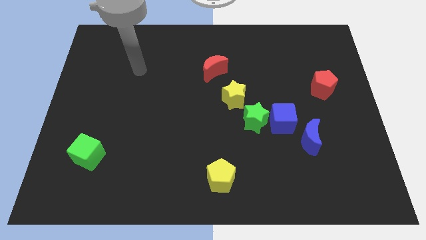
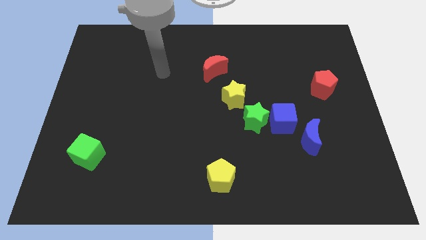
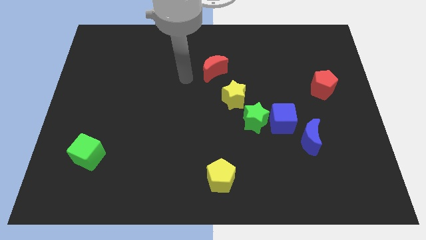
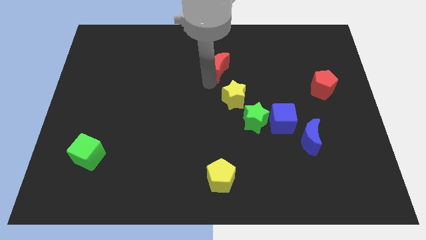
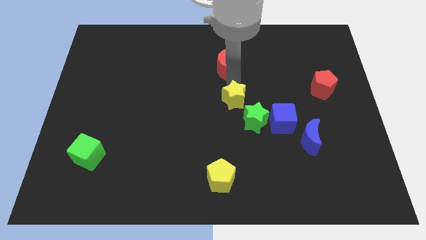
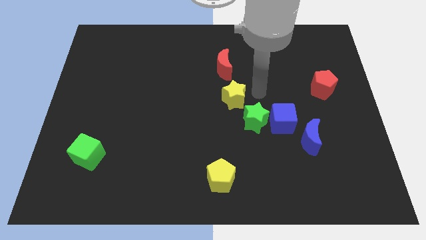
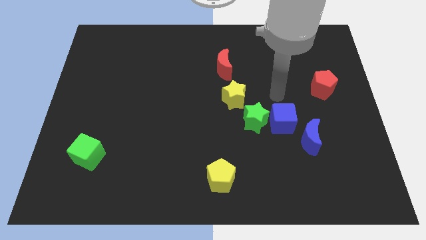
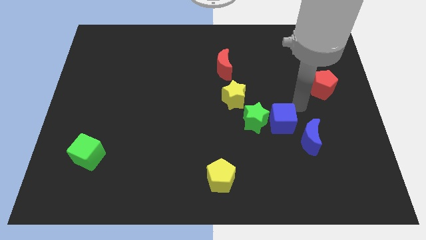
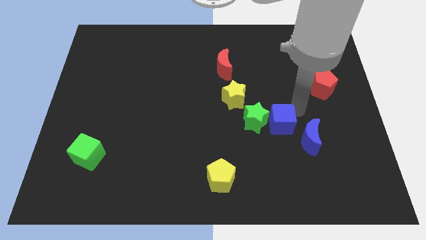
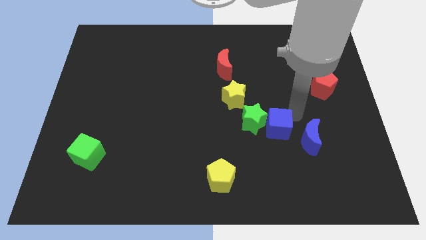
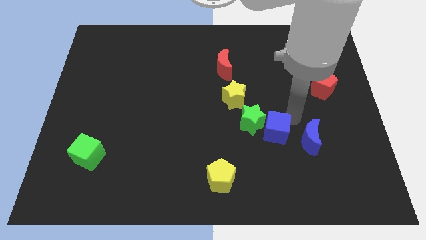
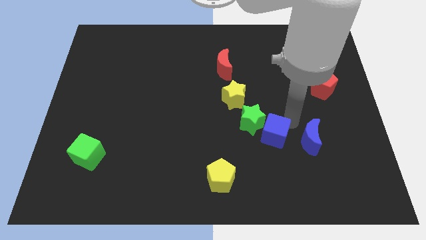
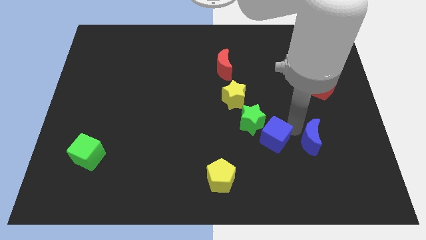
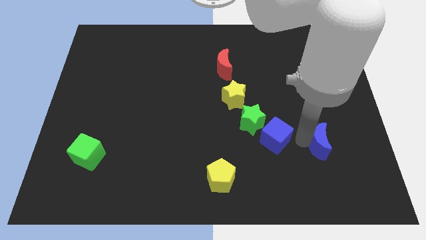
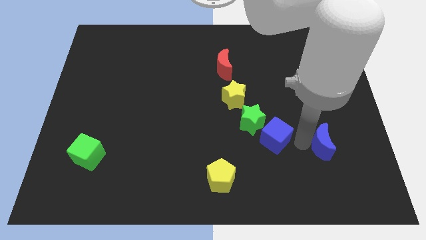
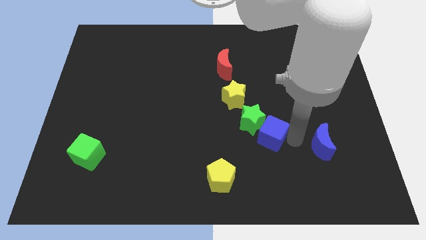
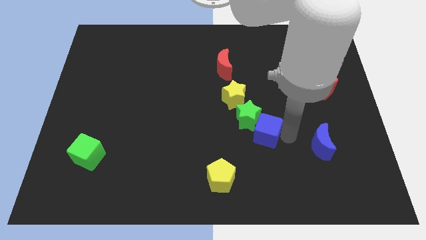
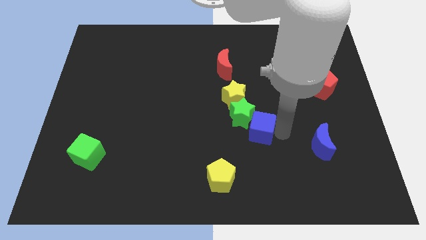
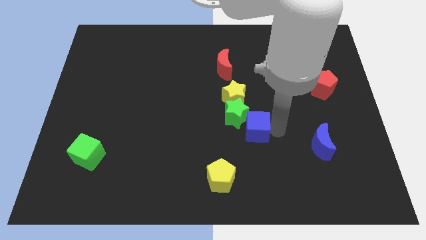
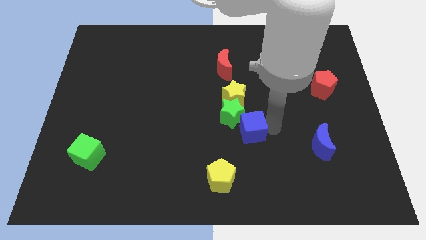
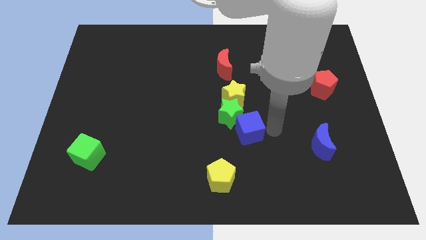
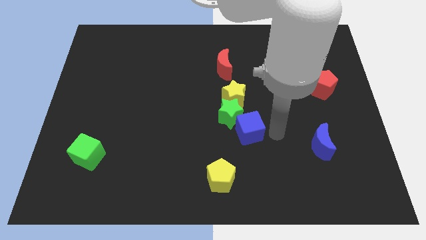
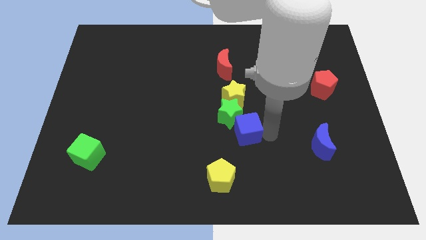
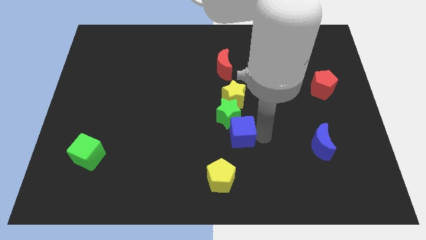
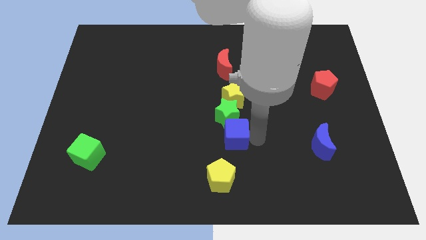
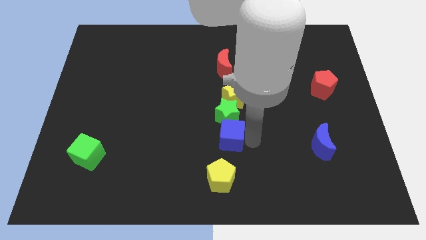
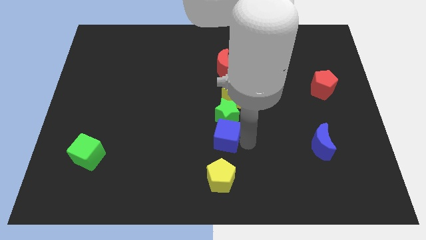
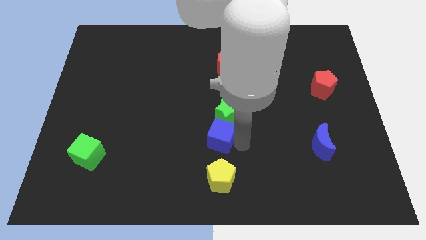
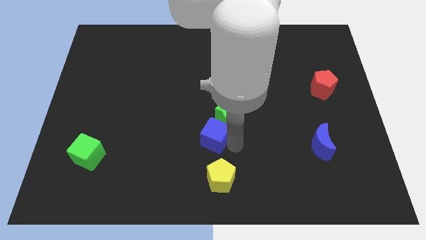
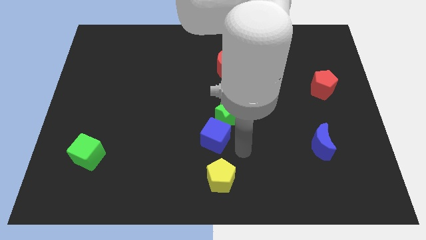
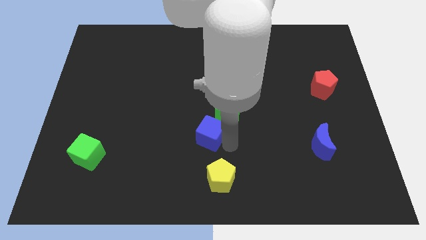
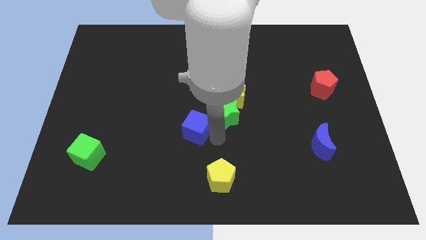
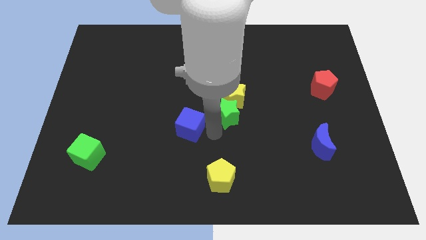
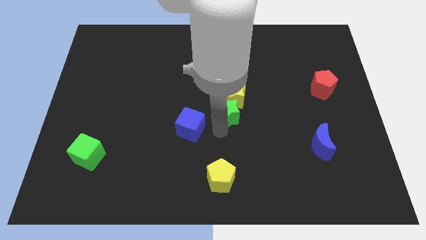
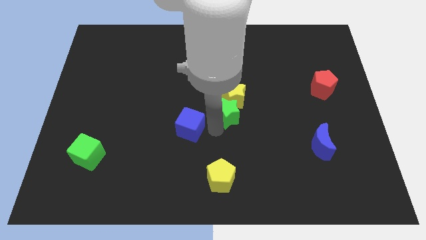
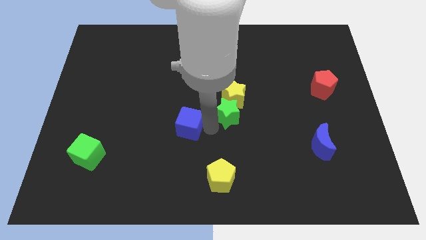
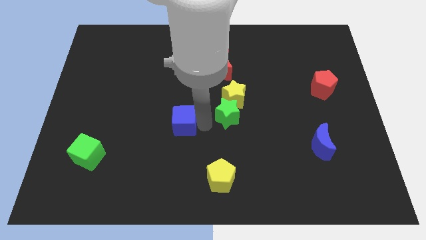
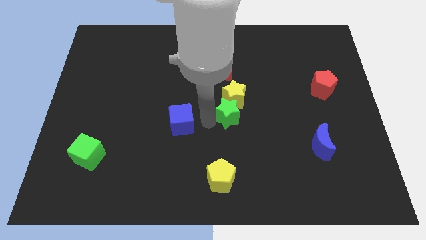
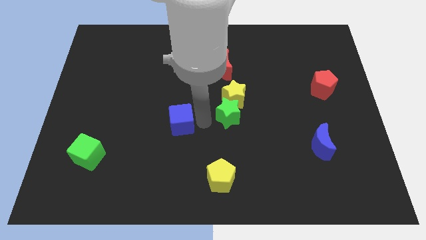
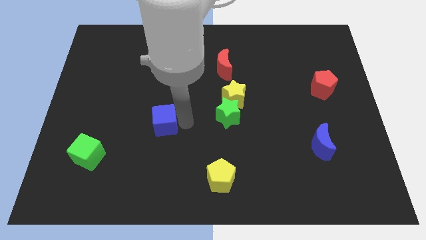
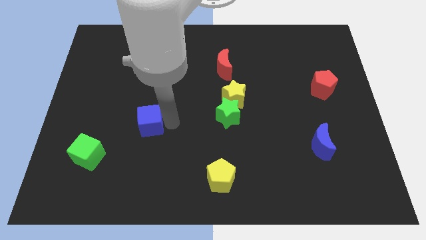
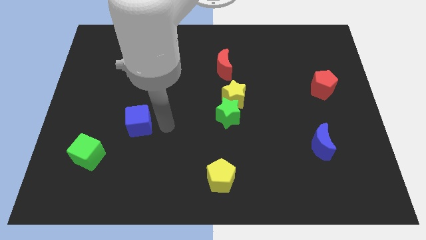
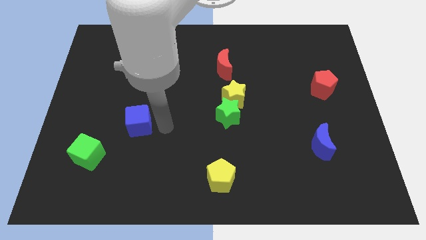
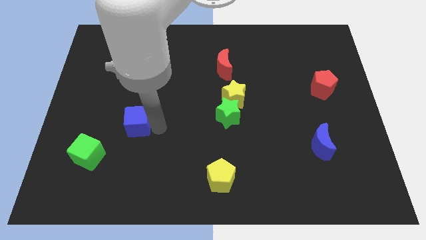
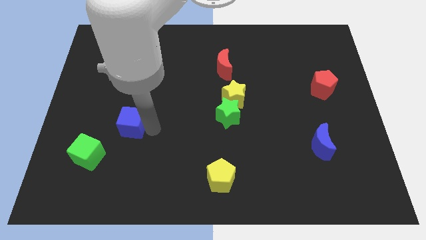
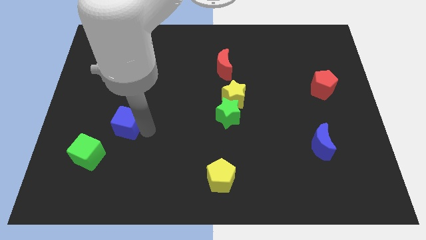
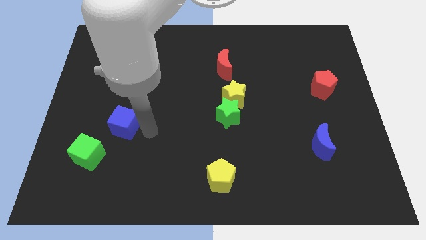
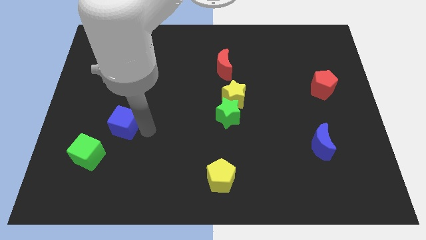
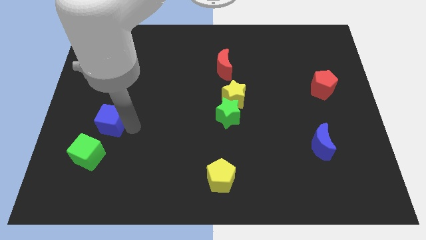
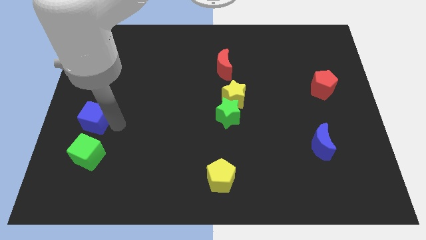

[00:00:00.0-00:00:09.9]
push the blue cube to the center left

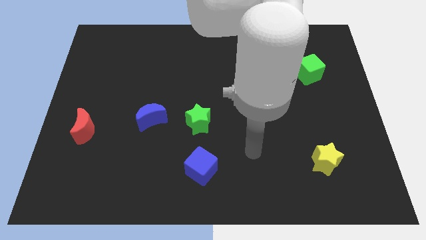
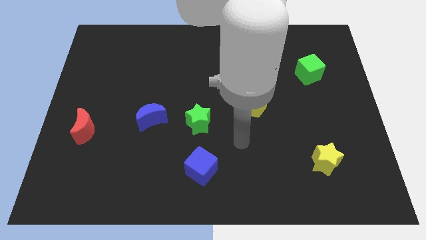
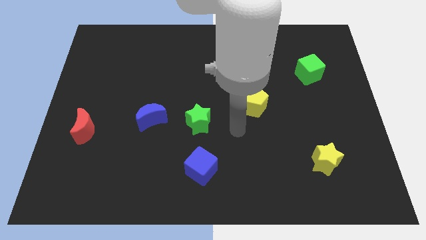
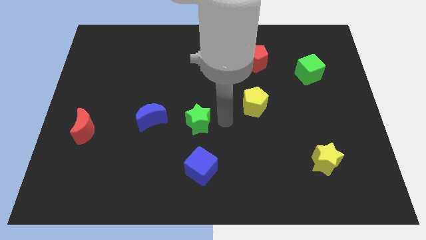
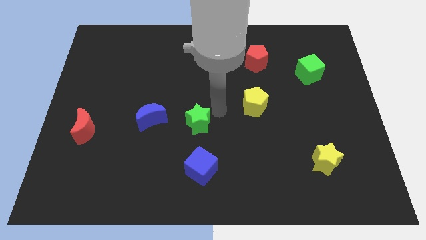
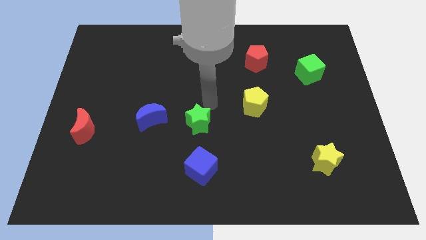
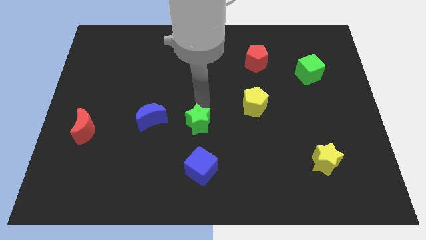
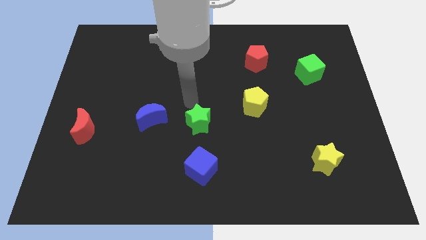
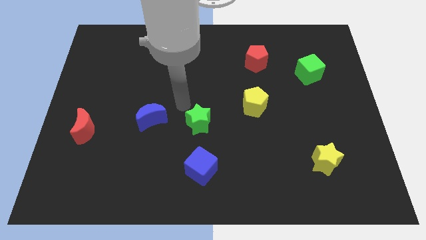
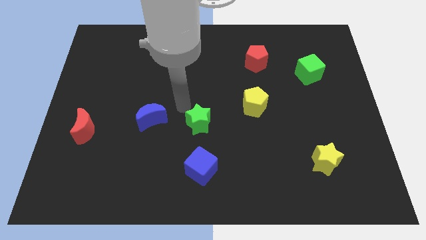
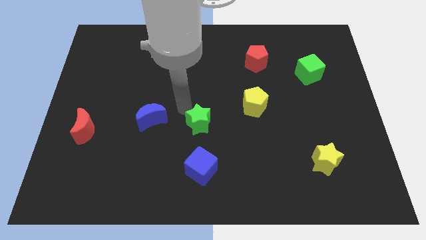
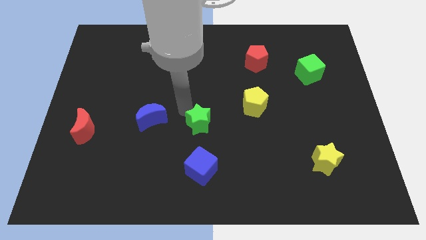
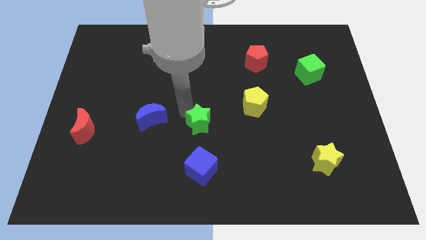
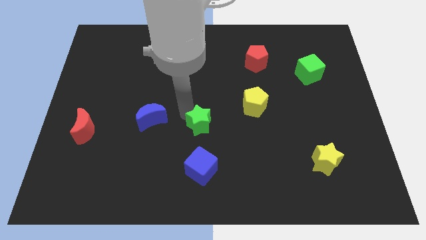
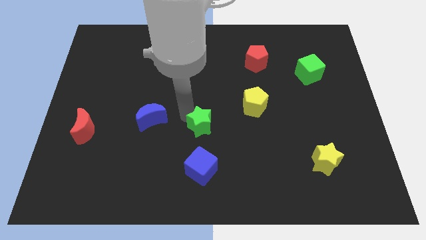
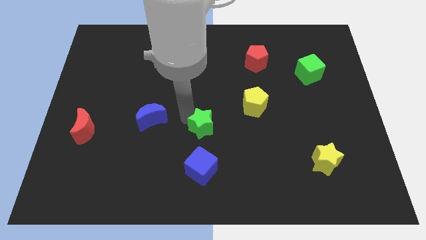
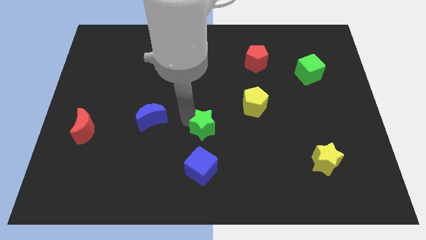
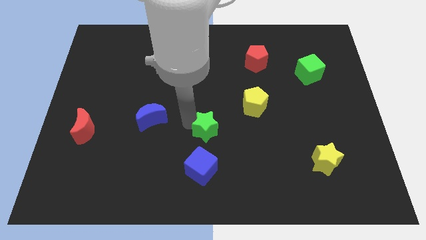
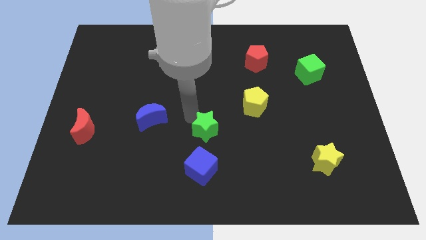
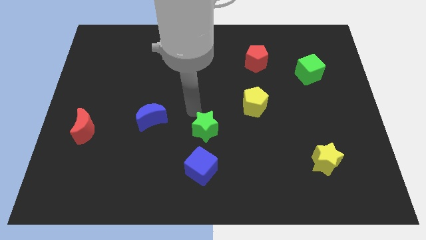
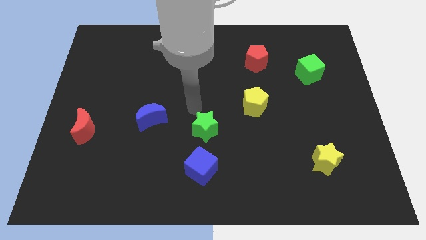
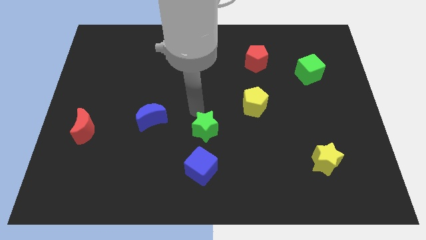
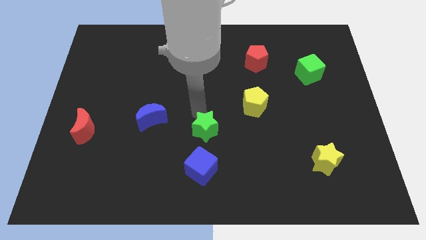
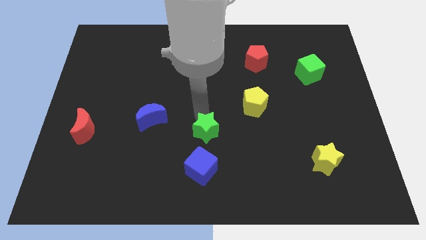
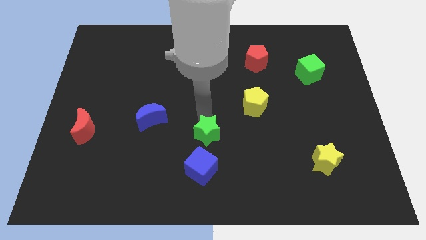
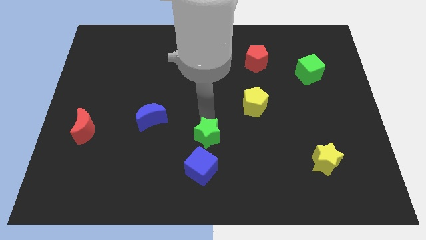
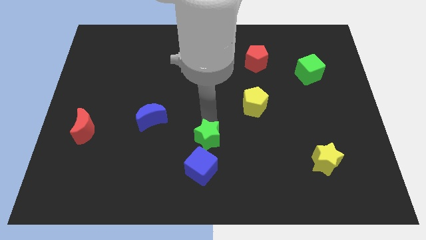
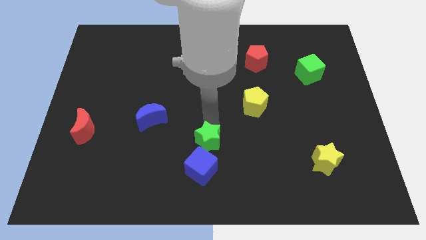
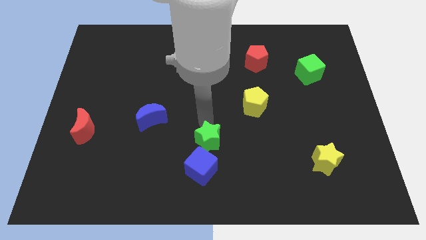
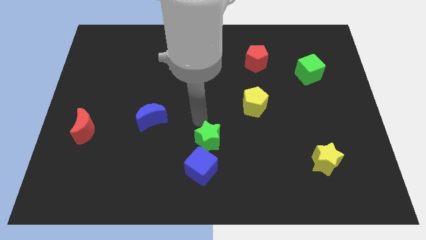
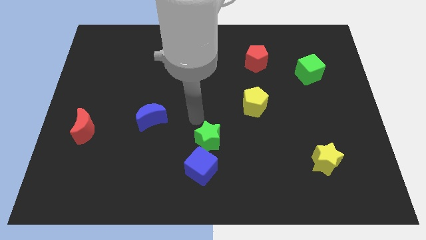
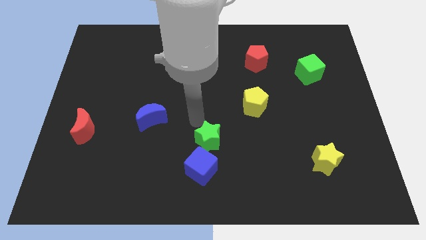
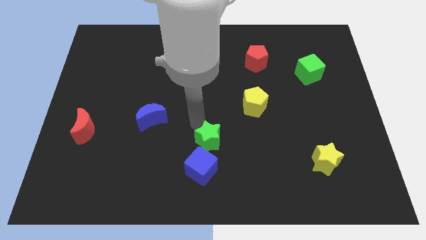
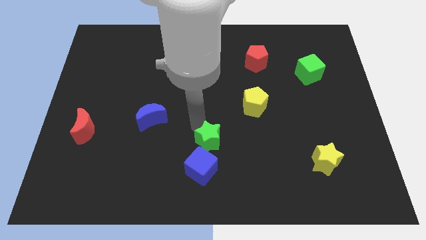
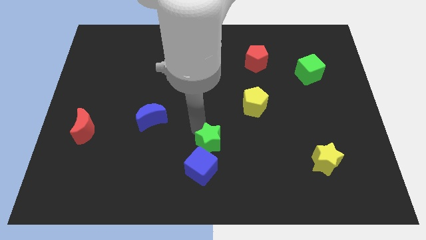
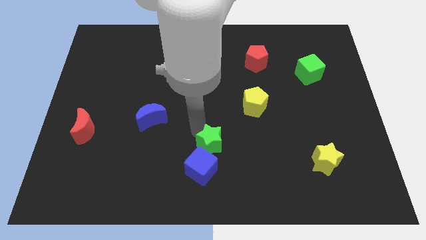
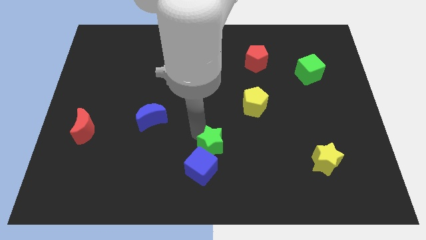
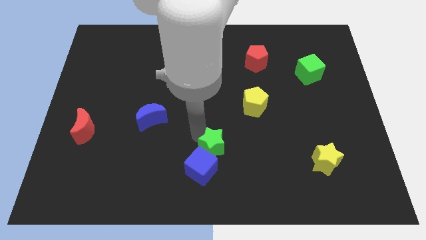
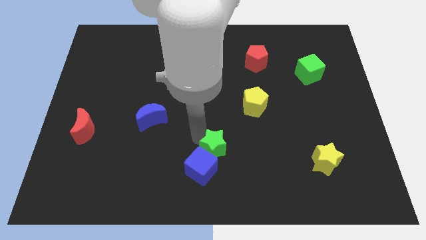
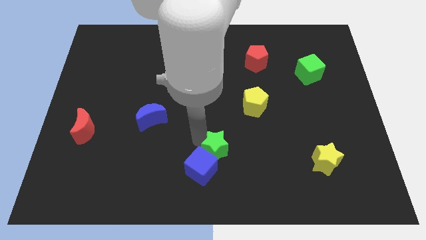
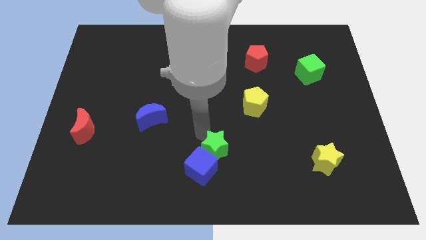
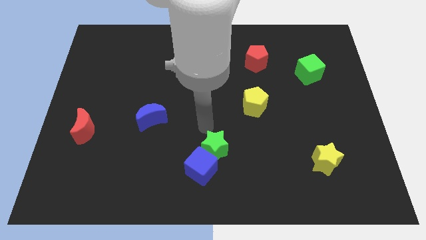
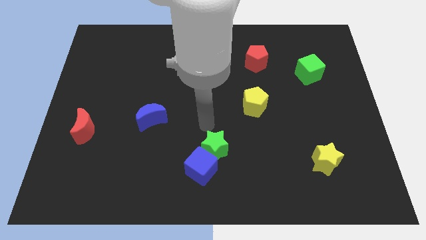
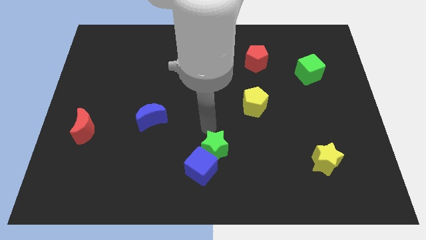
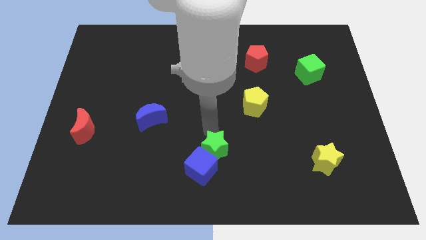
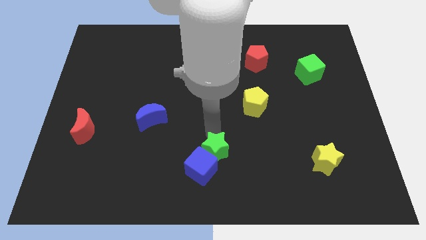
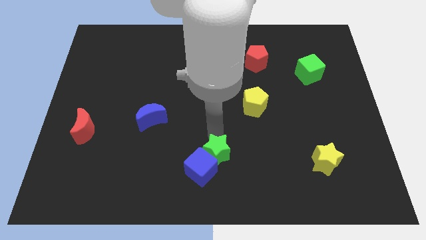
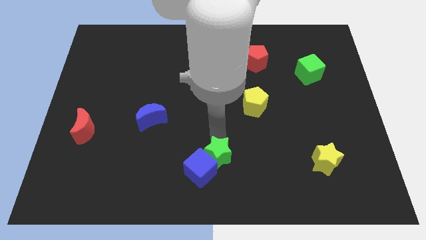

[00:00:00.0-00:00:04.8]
slide the green star to the bottom
